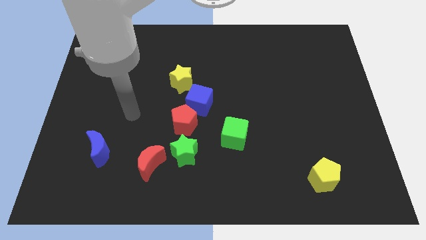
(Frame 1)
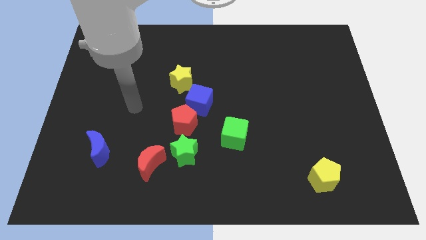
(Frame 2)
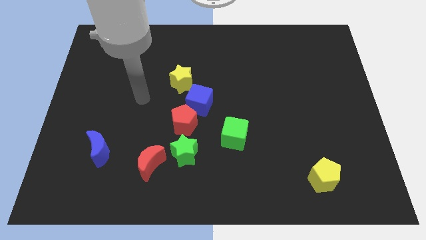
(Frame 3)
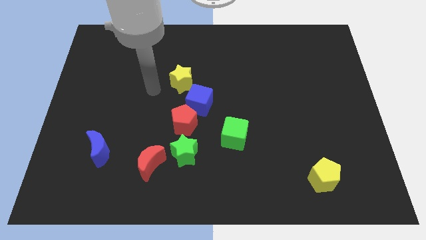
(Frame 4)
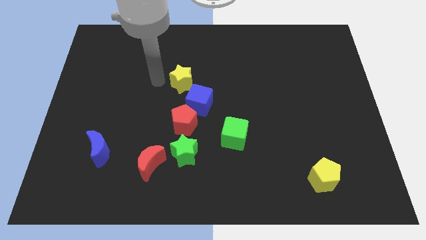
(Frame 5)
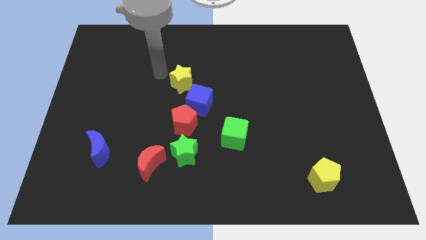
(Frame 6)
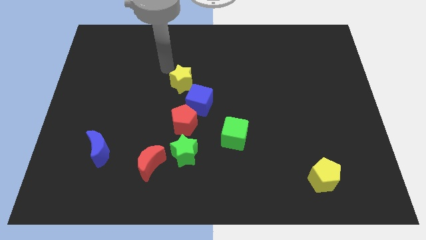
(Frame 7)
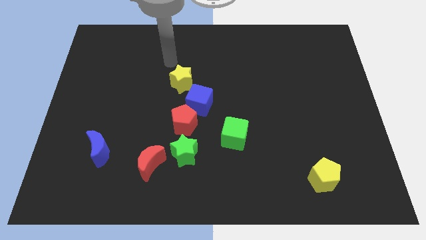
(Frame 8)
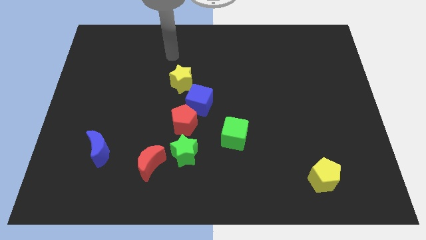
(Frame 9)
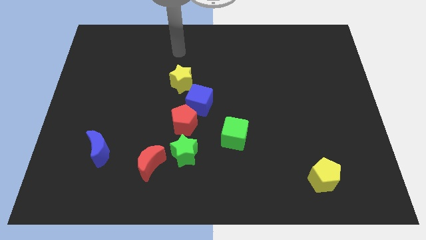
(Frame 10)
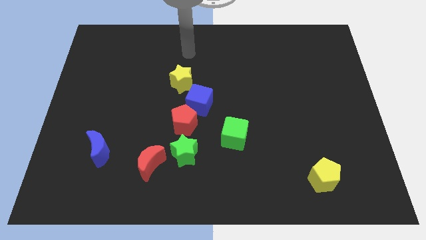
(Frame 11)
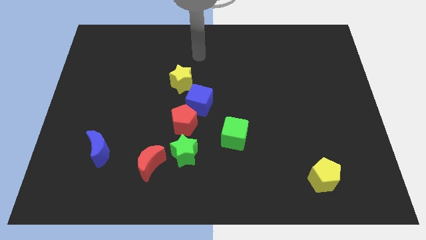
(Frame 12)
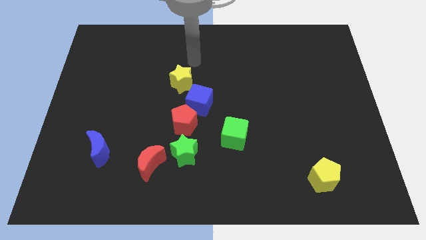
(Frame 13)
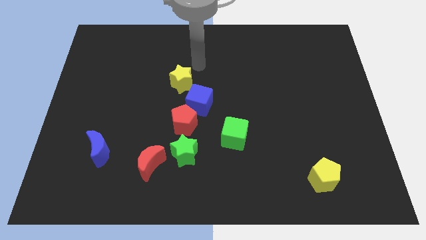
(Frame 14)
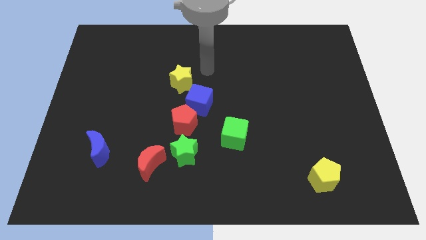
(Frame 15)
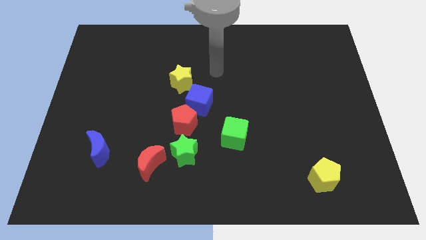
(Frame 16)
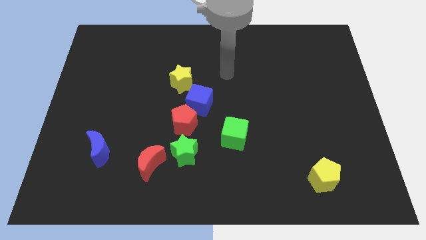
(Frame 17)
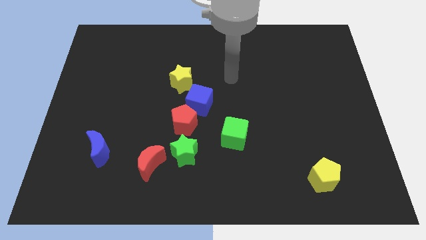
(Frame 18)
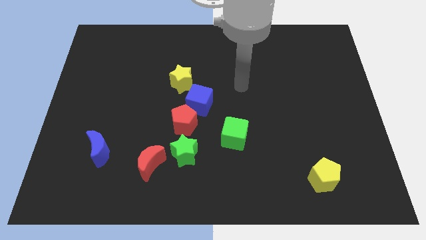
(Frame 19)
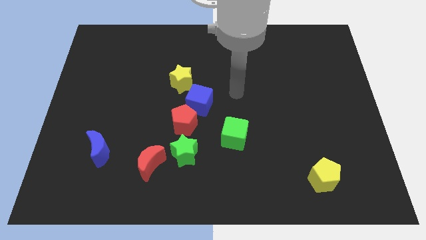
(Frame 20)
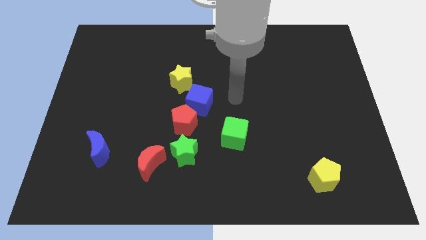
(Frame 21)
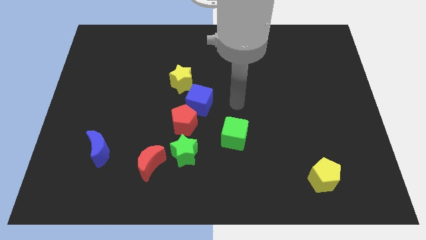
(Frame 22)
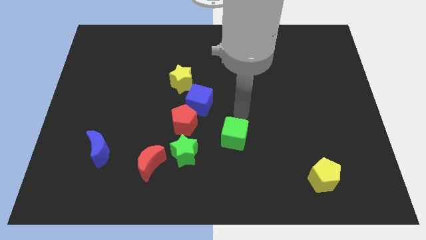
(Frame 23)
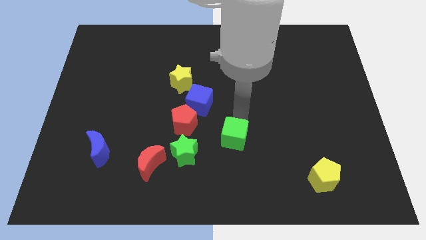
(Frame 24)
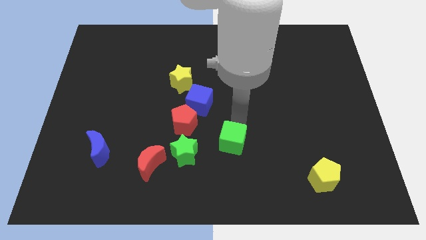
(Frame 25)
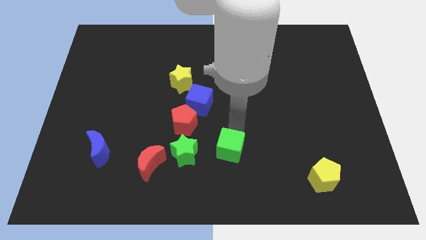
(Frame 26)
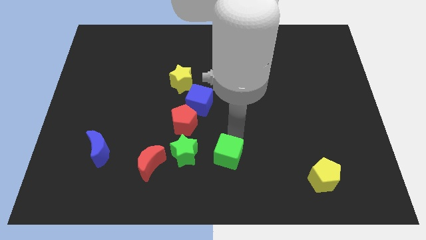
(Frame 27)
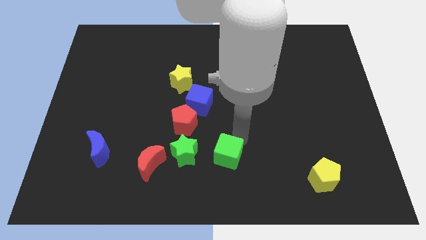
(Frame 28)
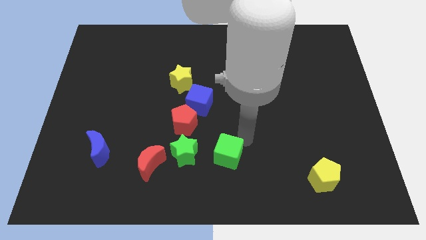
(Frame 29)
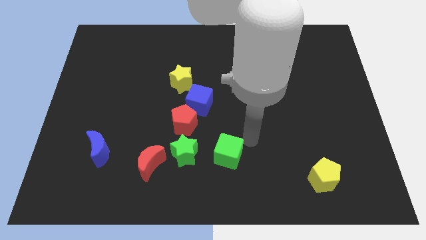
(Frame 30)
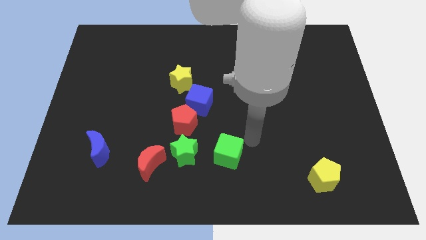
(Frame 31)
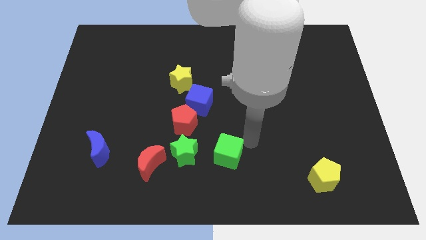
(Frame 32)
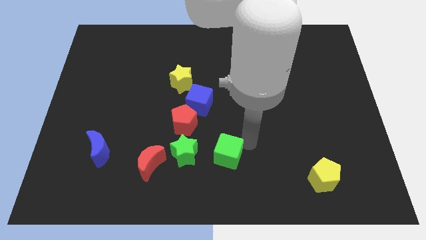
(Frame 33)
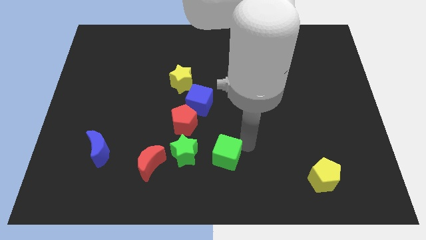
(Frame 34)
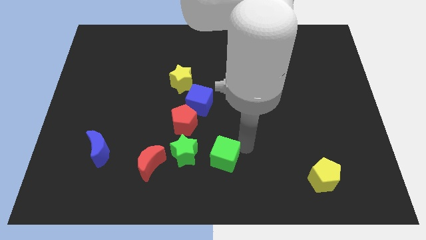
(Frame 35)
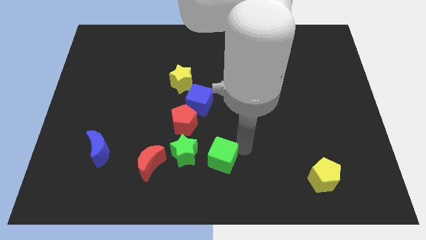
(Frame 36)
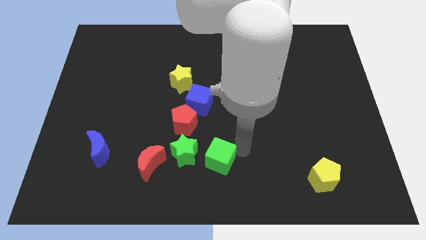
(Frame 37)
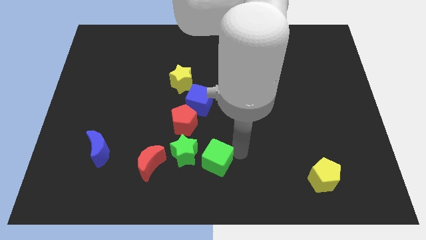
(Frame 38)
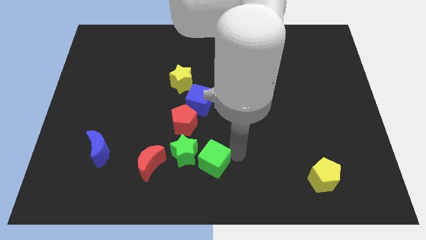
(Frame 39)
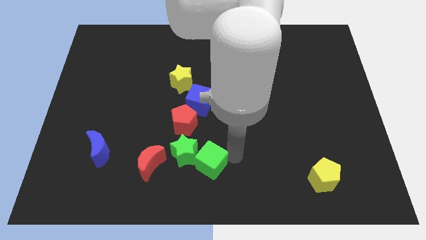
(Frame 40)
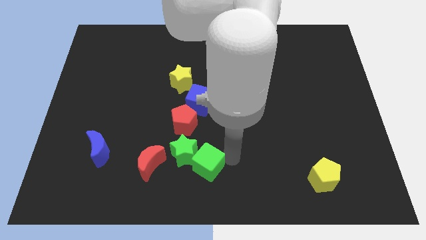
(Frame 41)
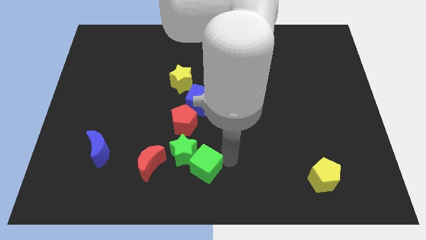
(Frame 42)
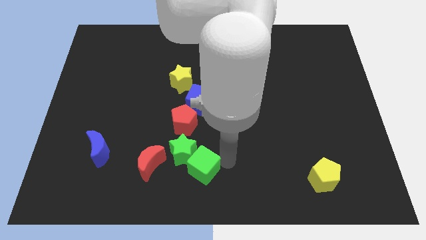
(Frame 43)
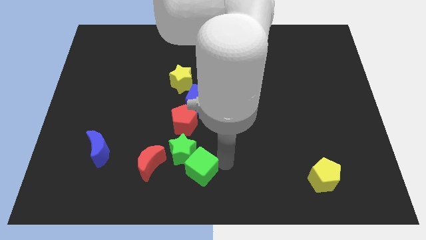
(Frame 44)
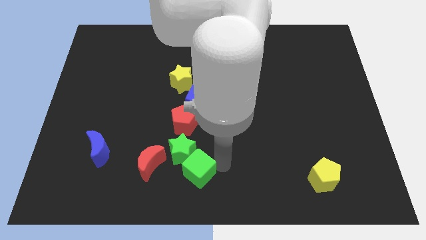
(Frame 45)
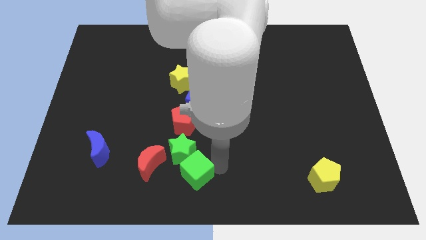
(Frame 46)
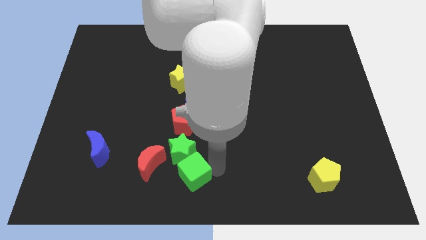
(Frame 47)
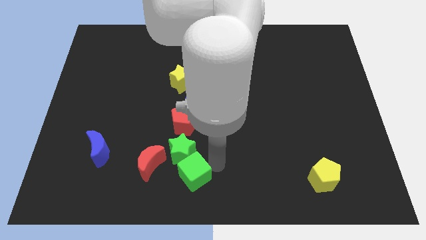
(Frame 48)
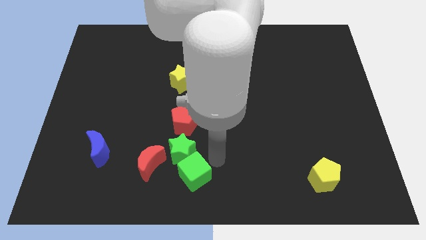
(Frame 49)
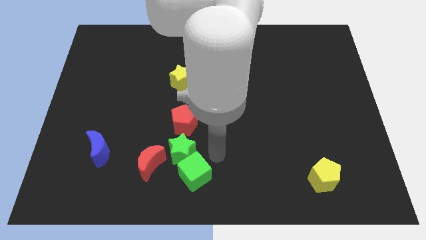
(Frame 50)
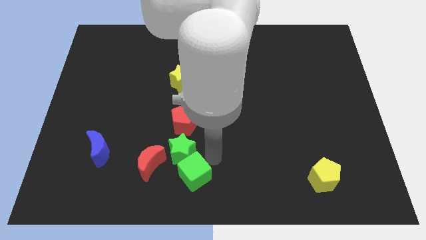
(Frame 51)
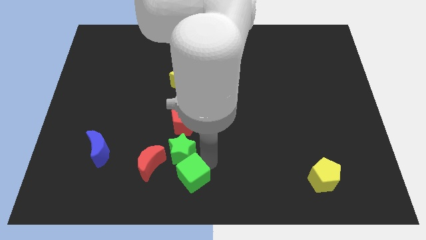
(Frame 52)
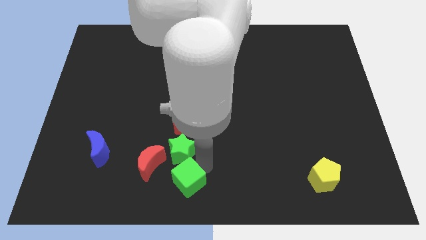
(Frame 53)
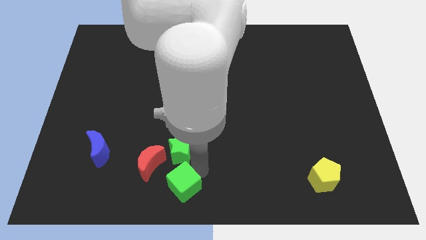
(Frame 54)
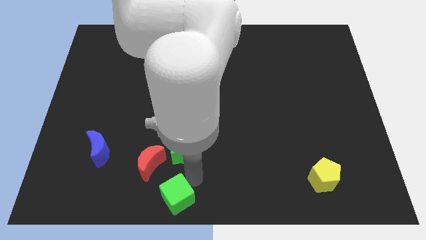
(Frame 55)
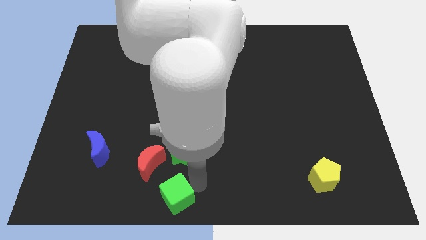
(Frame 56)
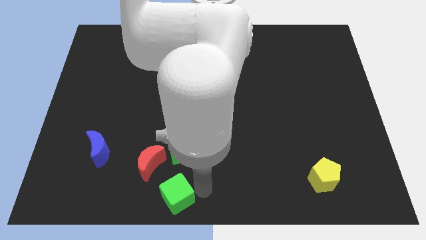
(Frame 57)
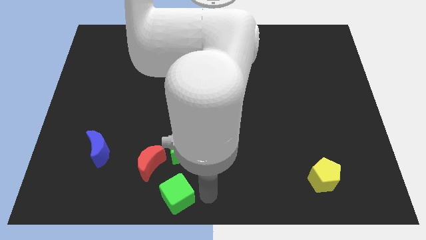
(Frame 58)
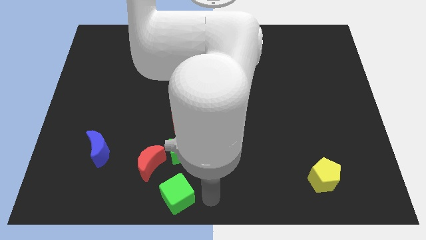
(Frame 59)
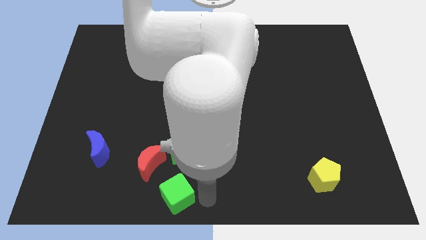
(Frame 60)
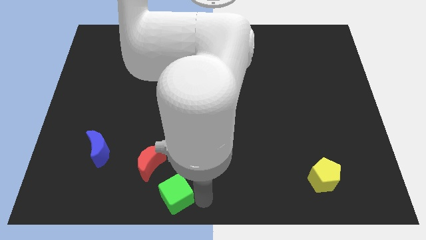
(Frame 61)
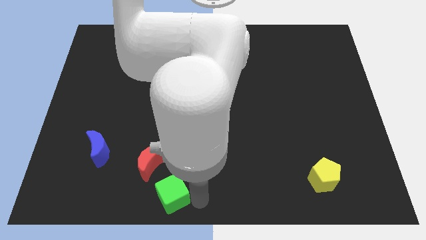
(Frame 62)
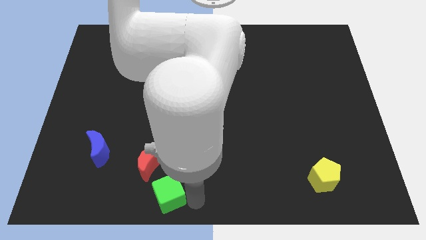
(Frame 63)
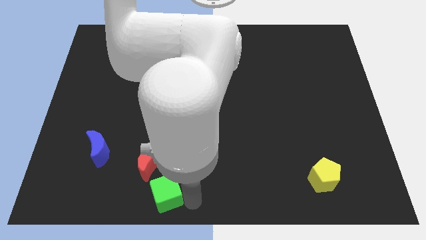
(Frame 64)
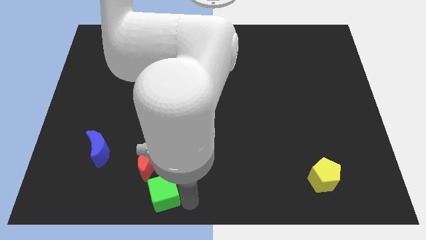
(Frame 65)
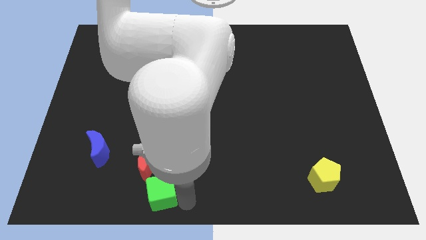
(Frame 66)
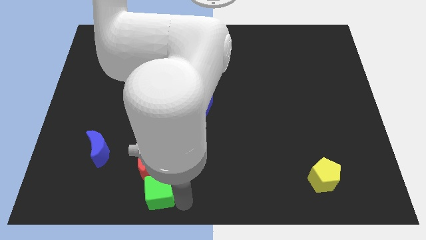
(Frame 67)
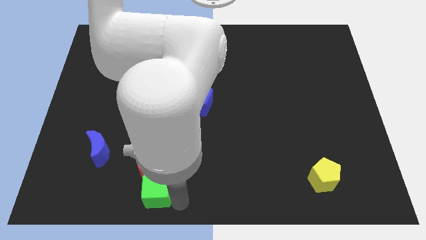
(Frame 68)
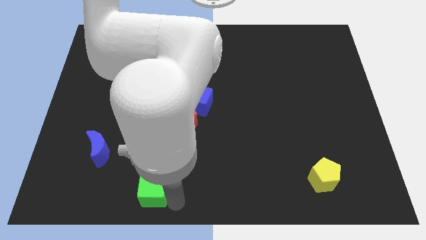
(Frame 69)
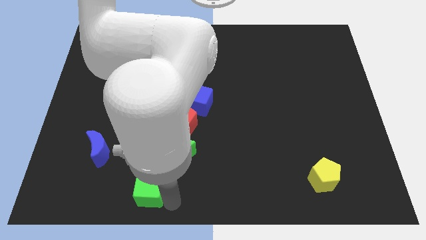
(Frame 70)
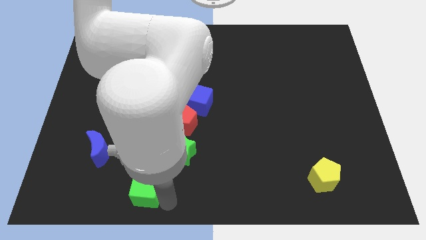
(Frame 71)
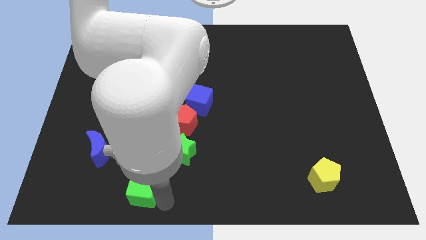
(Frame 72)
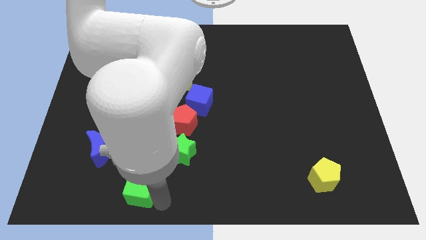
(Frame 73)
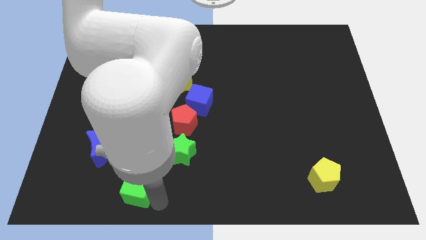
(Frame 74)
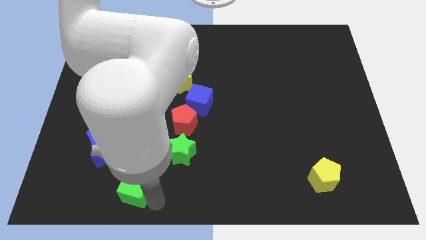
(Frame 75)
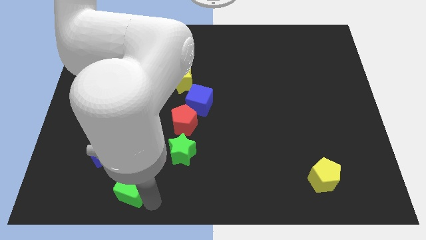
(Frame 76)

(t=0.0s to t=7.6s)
push the green cube slightly to the left

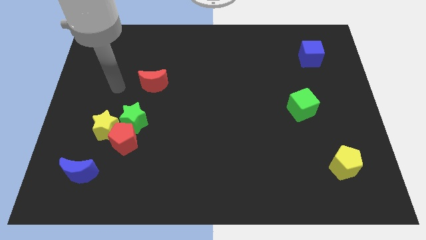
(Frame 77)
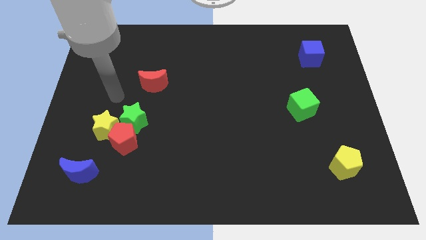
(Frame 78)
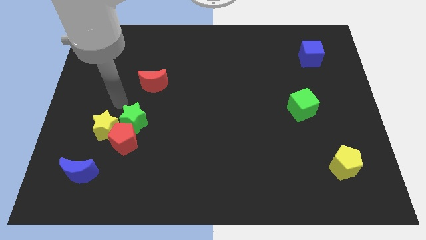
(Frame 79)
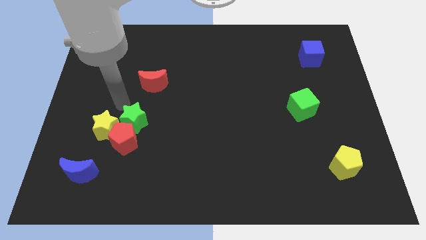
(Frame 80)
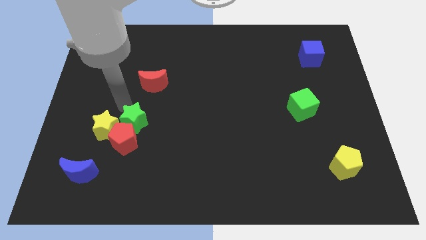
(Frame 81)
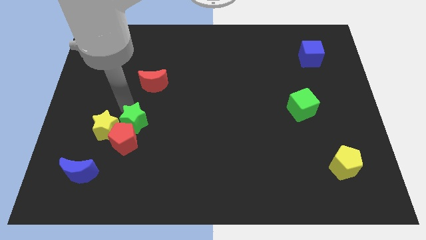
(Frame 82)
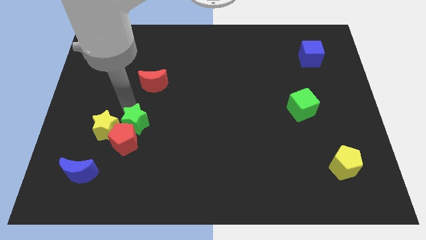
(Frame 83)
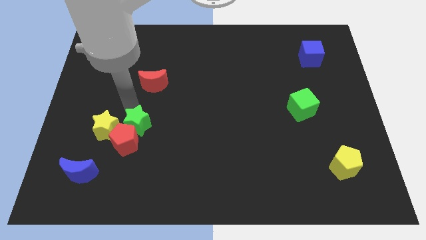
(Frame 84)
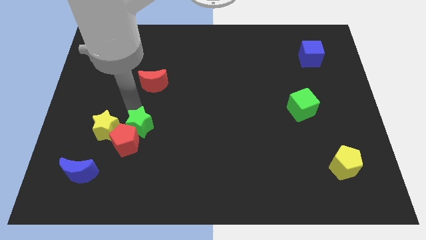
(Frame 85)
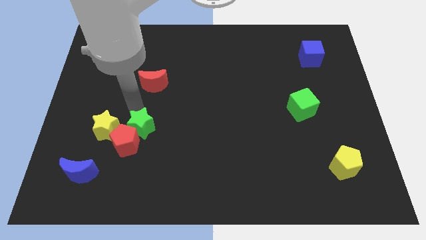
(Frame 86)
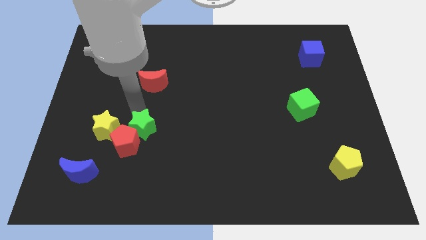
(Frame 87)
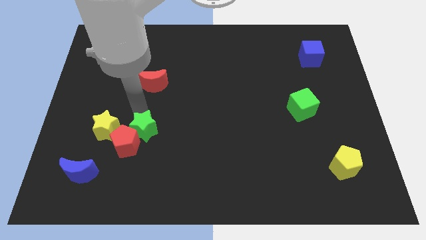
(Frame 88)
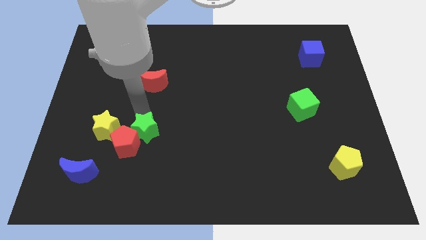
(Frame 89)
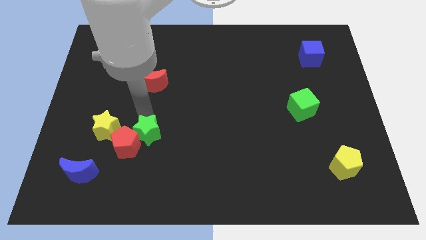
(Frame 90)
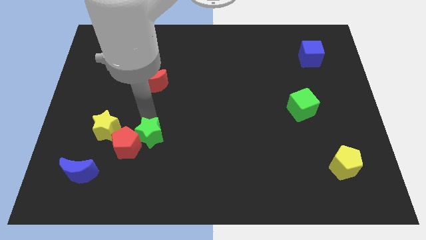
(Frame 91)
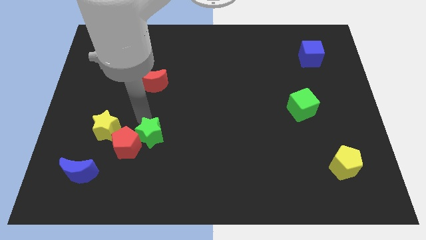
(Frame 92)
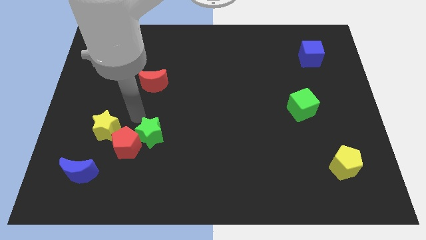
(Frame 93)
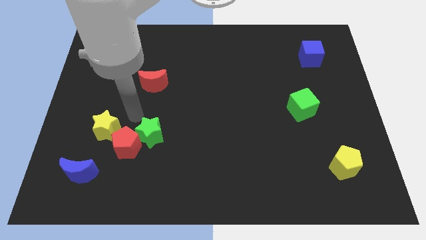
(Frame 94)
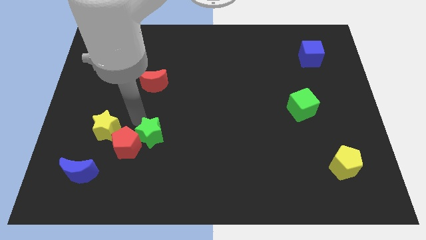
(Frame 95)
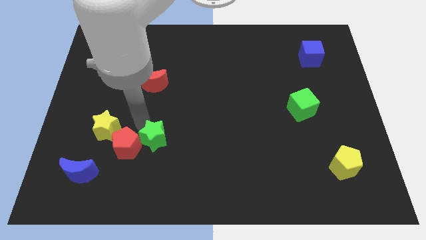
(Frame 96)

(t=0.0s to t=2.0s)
move the green star downwards and right slightly
